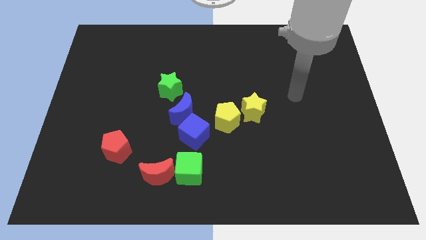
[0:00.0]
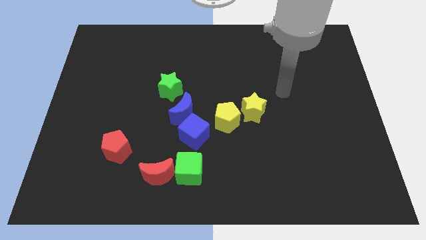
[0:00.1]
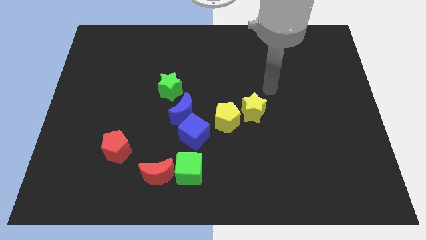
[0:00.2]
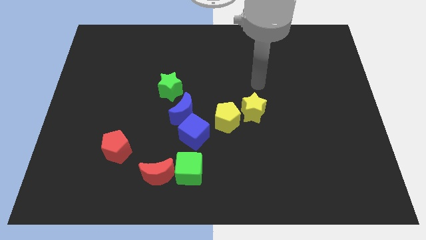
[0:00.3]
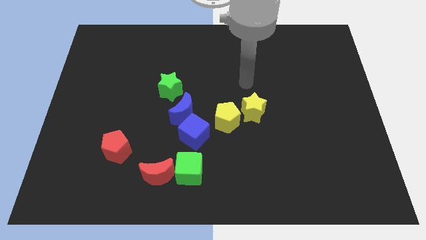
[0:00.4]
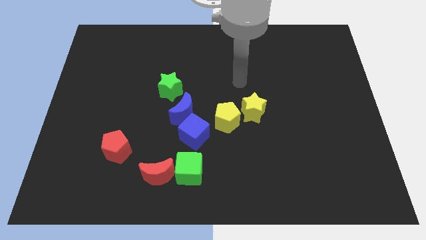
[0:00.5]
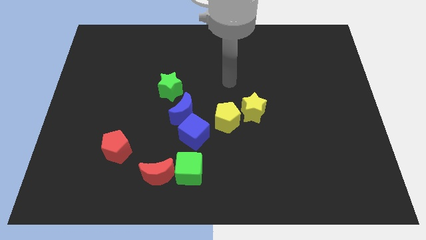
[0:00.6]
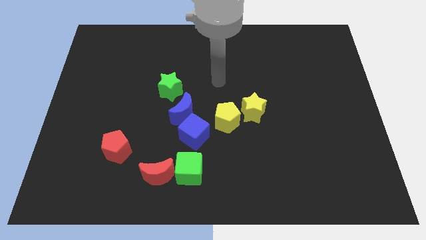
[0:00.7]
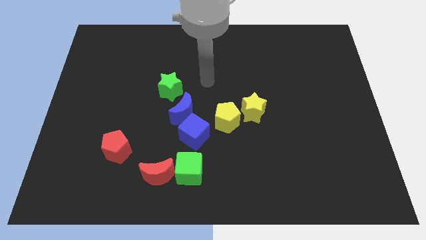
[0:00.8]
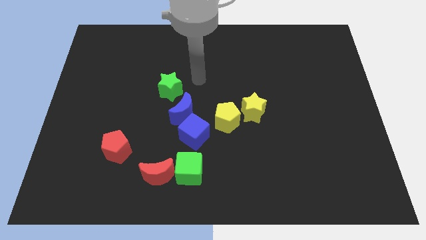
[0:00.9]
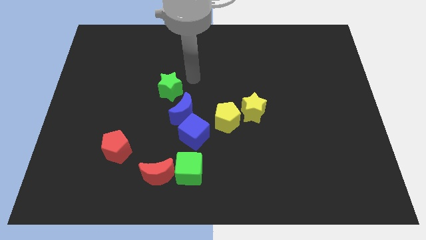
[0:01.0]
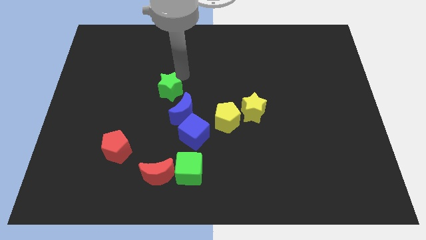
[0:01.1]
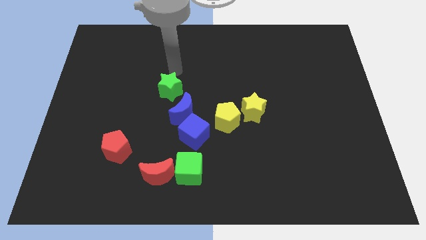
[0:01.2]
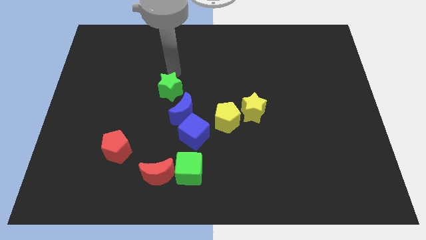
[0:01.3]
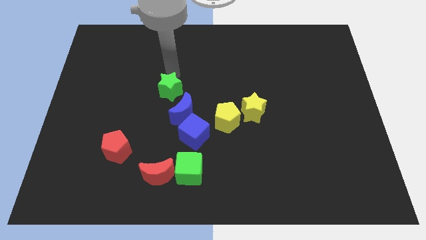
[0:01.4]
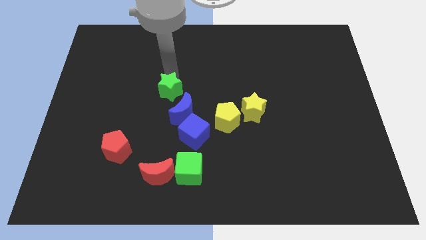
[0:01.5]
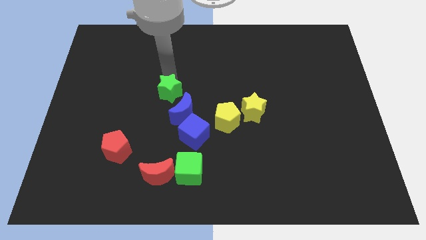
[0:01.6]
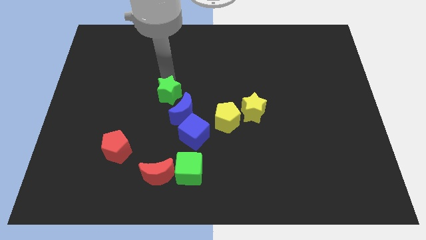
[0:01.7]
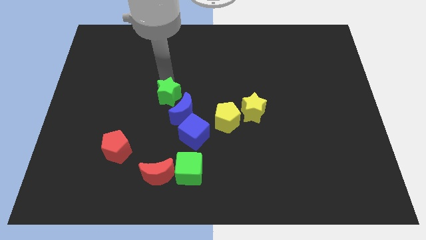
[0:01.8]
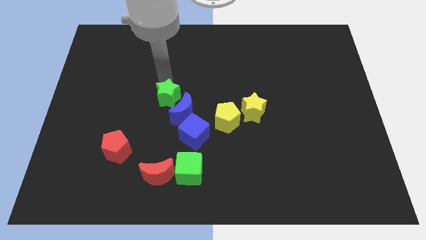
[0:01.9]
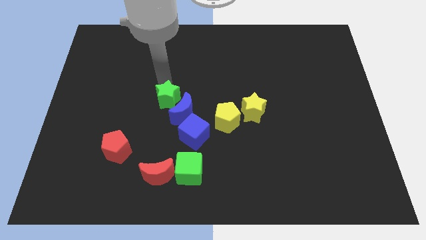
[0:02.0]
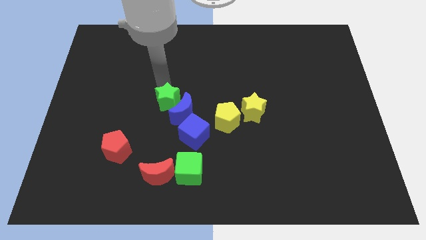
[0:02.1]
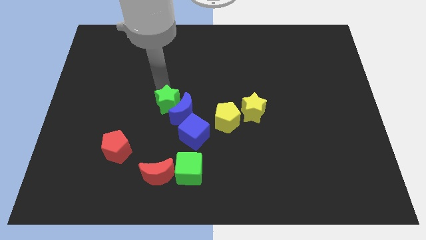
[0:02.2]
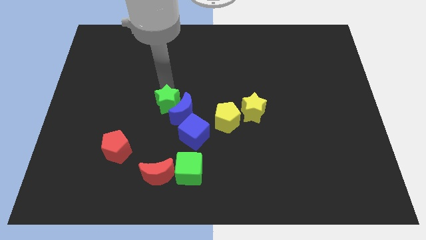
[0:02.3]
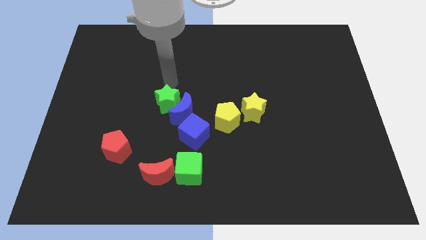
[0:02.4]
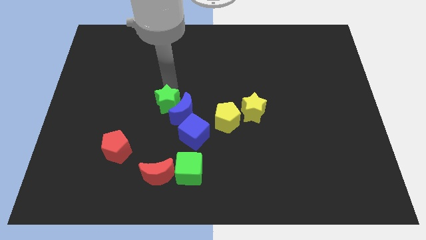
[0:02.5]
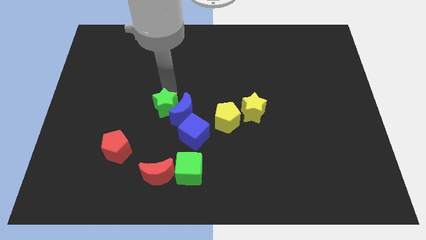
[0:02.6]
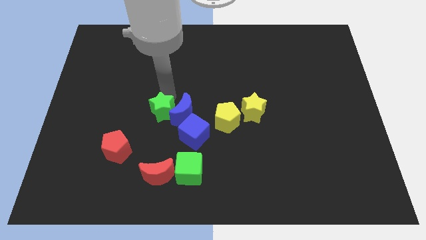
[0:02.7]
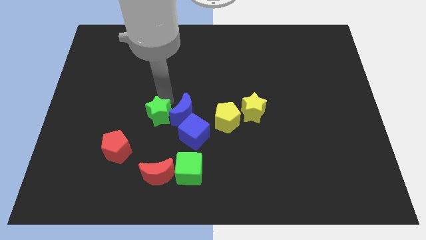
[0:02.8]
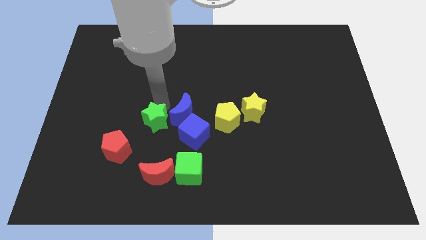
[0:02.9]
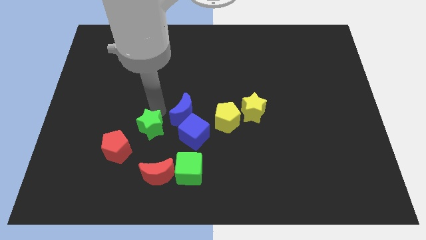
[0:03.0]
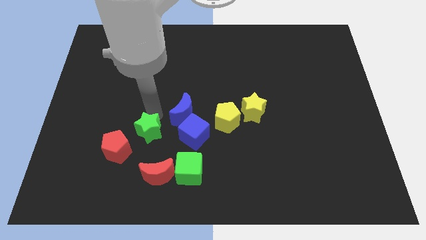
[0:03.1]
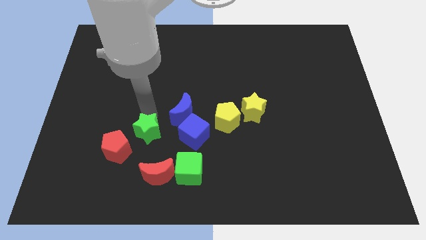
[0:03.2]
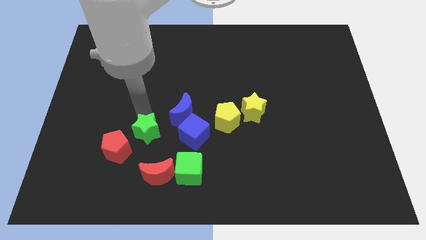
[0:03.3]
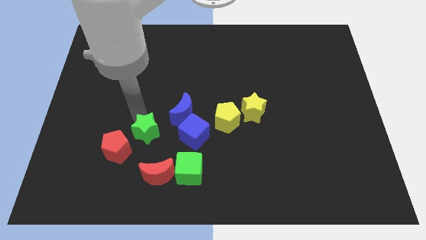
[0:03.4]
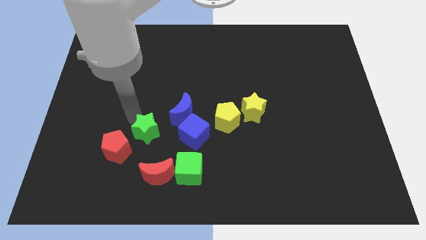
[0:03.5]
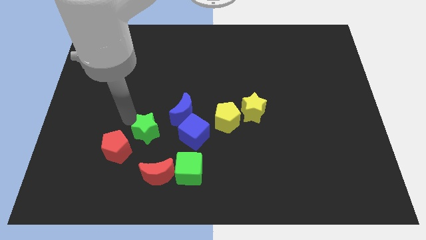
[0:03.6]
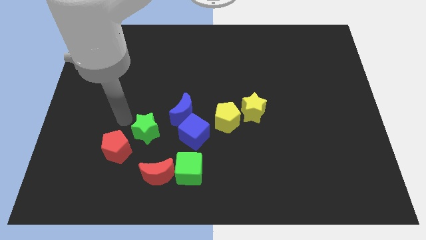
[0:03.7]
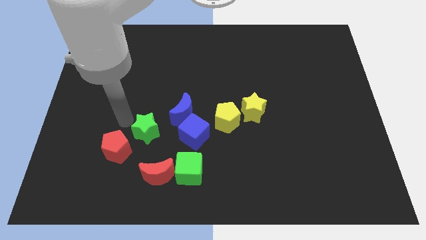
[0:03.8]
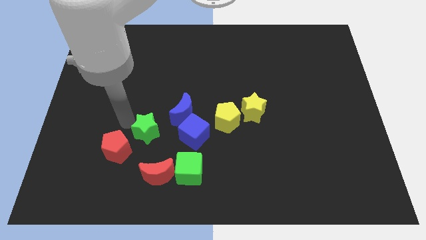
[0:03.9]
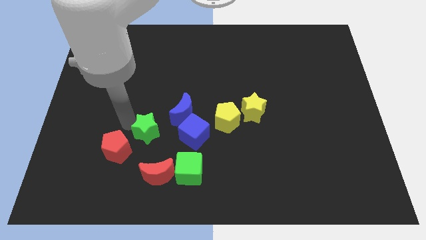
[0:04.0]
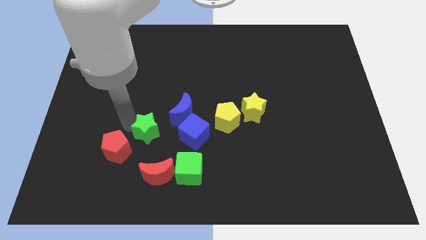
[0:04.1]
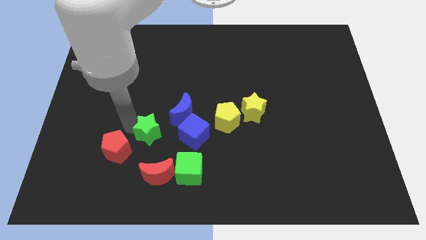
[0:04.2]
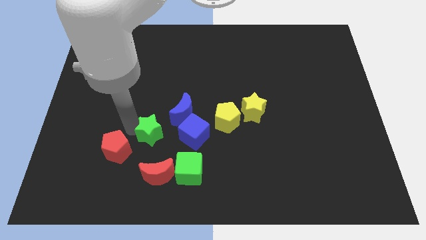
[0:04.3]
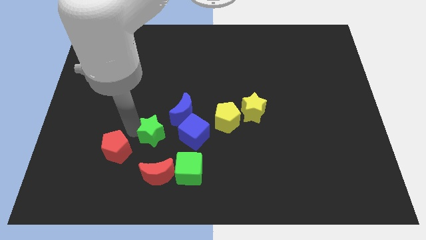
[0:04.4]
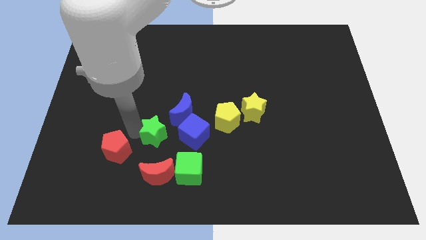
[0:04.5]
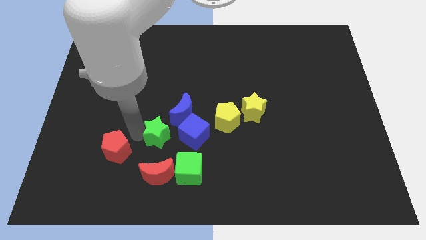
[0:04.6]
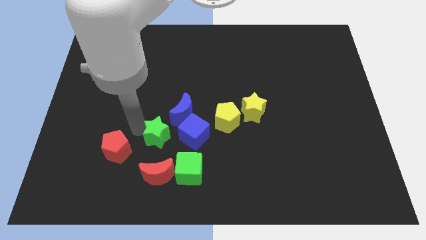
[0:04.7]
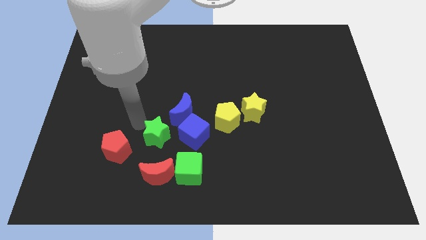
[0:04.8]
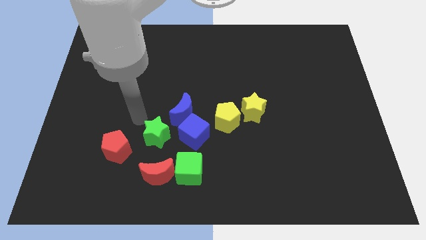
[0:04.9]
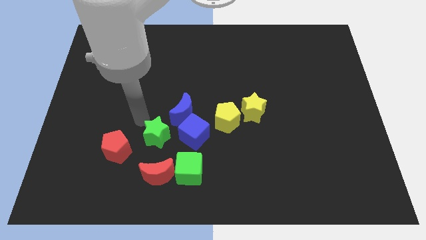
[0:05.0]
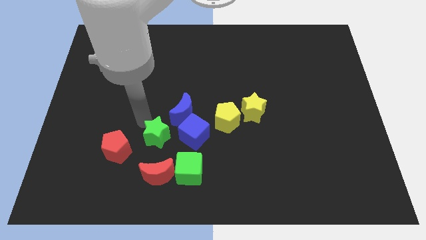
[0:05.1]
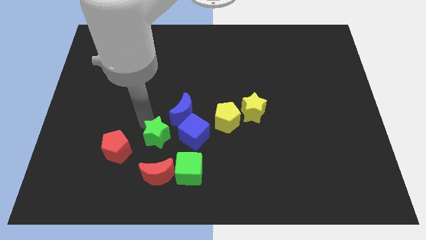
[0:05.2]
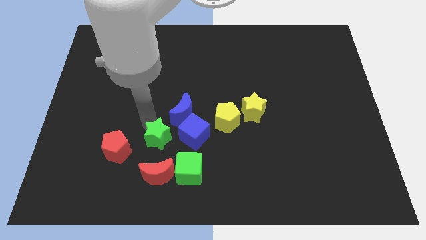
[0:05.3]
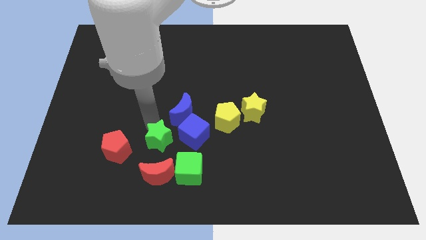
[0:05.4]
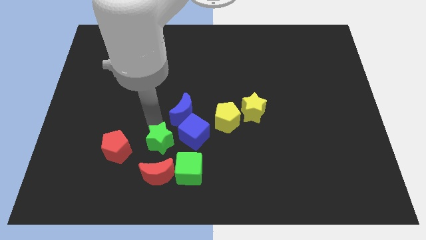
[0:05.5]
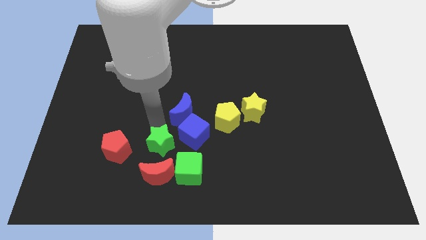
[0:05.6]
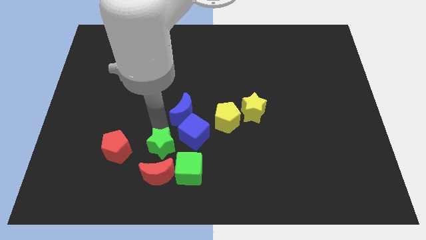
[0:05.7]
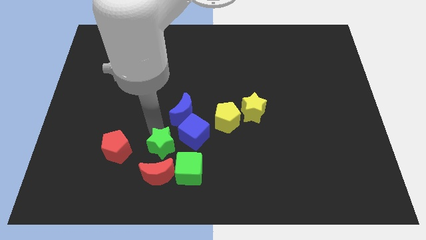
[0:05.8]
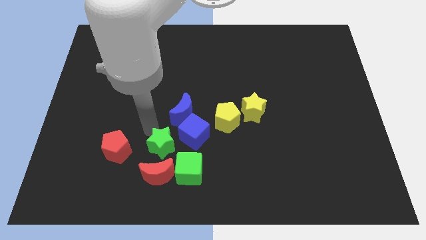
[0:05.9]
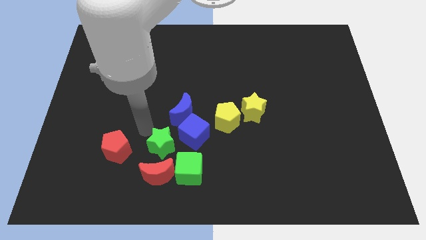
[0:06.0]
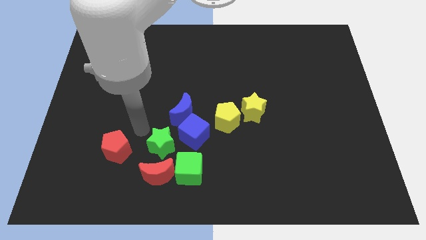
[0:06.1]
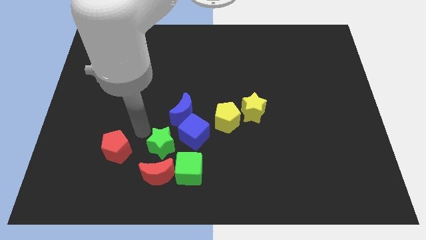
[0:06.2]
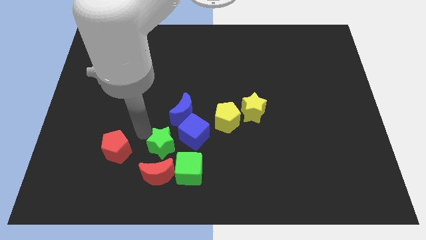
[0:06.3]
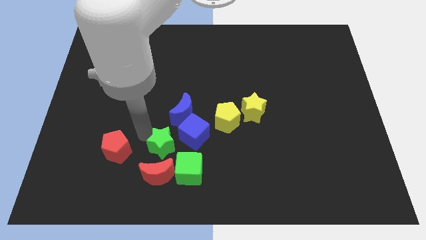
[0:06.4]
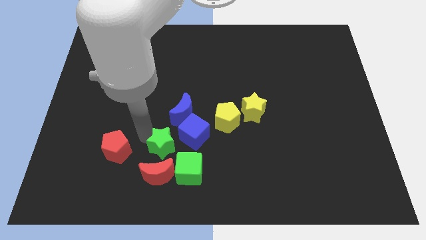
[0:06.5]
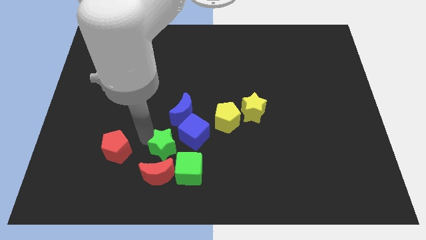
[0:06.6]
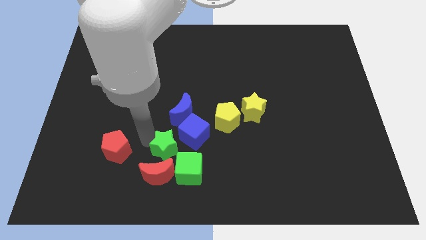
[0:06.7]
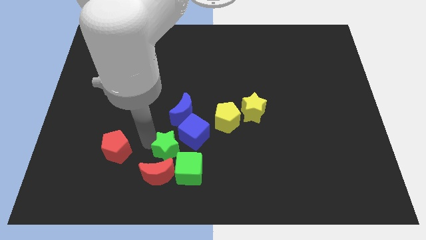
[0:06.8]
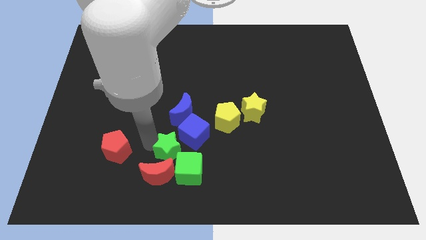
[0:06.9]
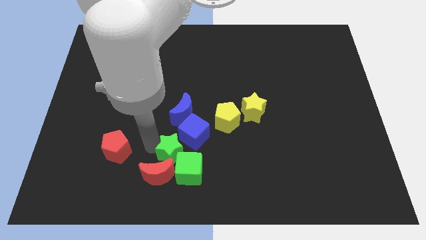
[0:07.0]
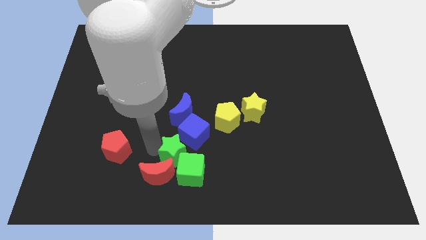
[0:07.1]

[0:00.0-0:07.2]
move the green star next to the green cube

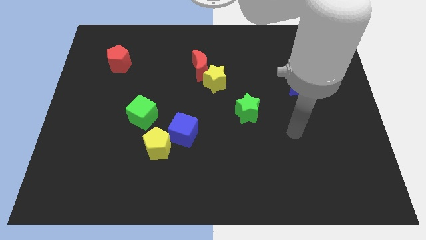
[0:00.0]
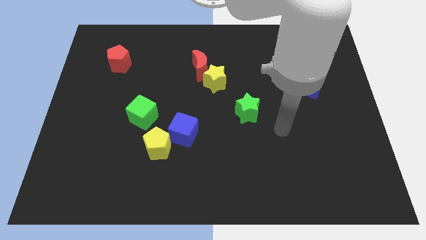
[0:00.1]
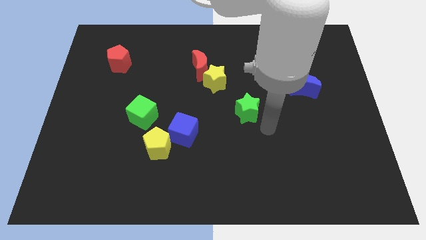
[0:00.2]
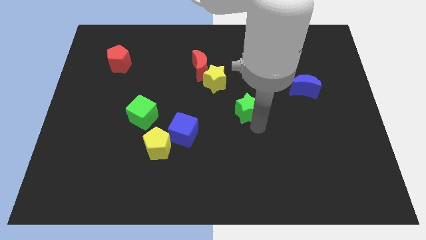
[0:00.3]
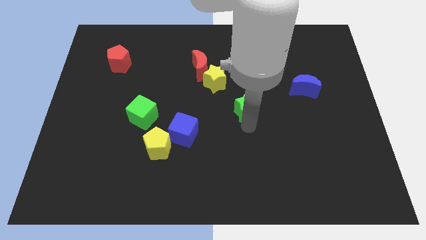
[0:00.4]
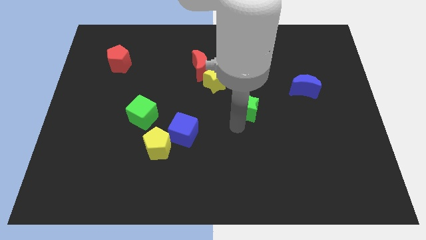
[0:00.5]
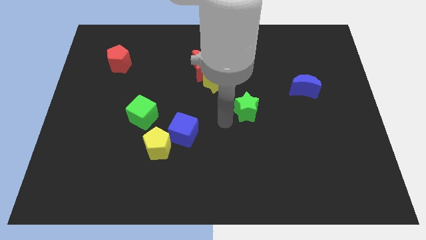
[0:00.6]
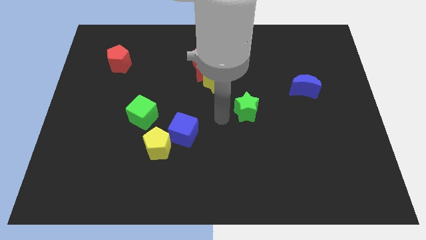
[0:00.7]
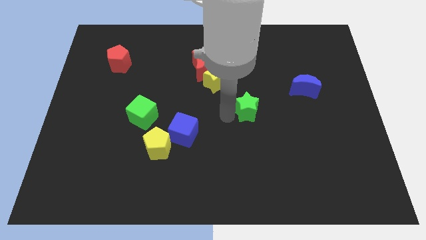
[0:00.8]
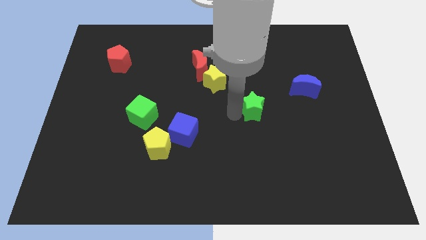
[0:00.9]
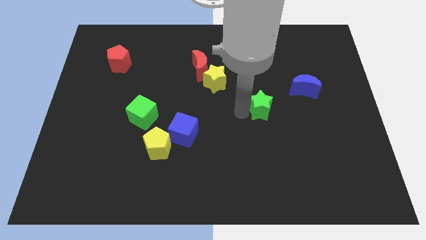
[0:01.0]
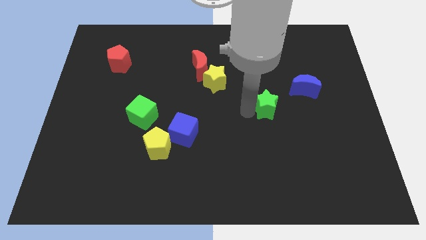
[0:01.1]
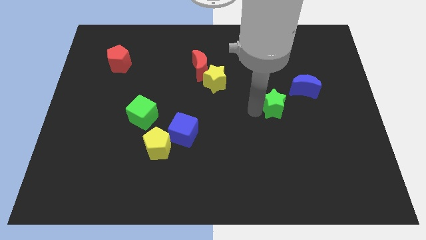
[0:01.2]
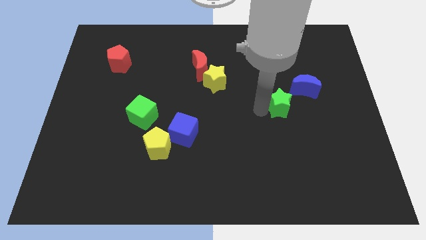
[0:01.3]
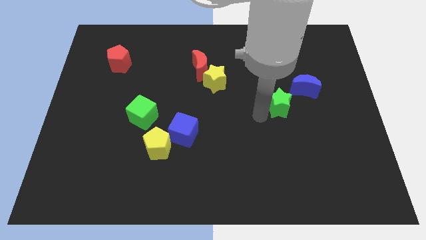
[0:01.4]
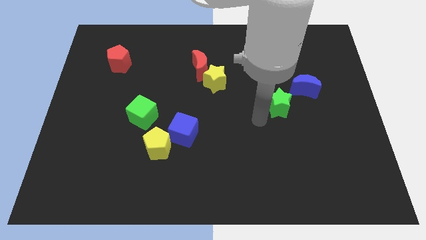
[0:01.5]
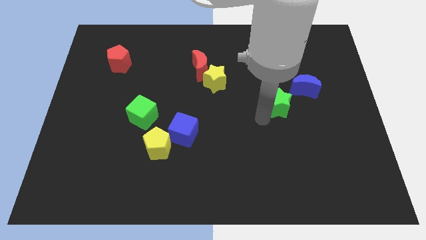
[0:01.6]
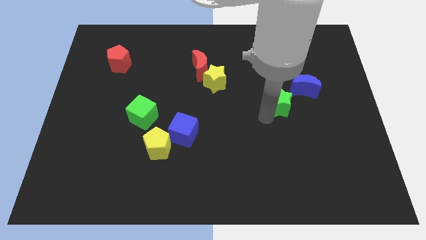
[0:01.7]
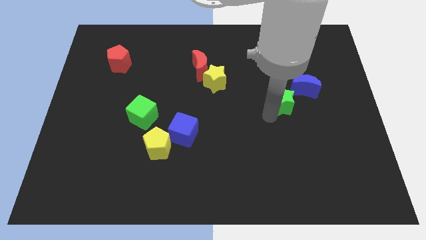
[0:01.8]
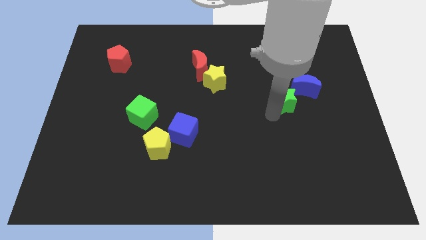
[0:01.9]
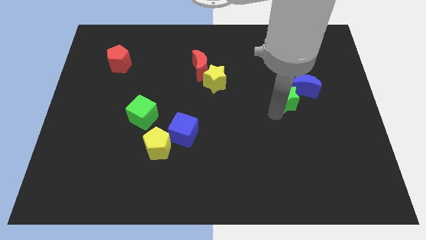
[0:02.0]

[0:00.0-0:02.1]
put the green star close to the blue moon
